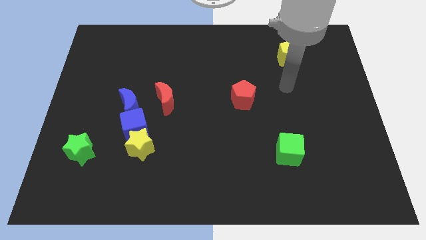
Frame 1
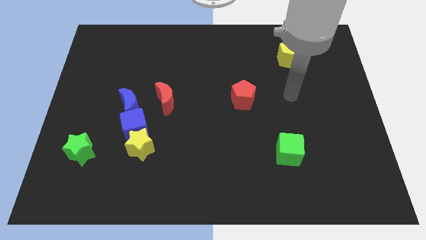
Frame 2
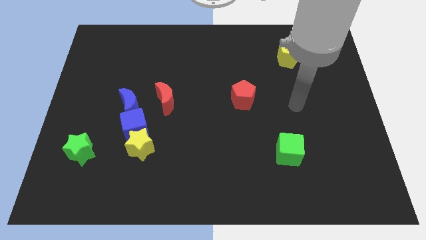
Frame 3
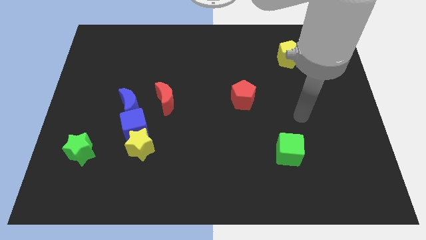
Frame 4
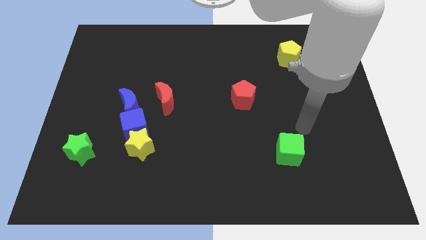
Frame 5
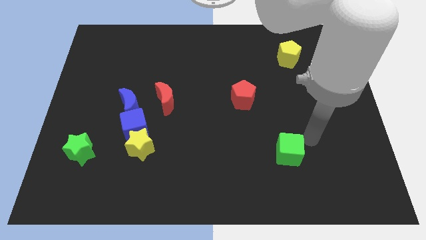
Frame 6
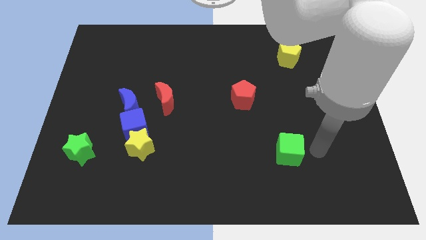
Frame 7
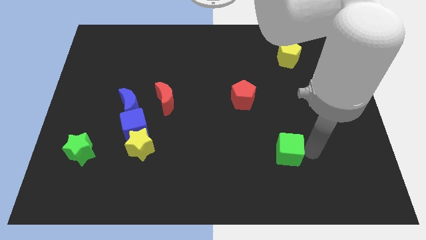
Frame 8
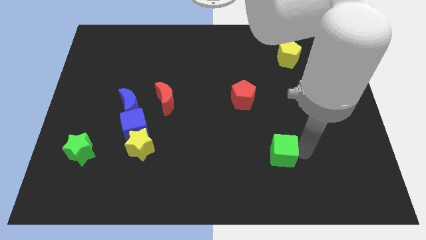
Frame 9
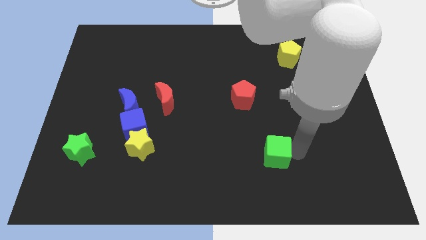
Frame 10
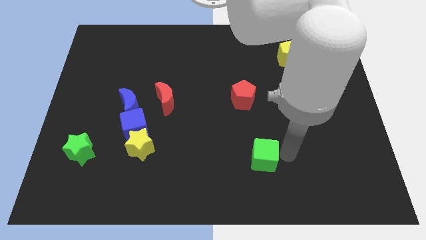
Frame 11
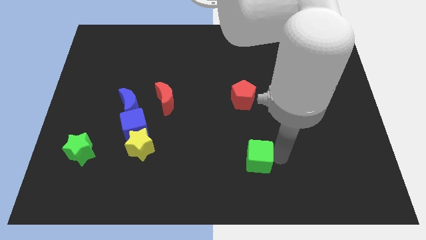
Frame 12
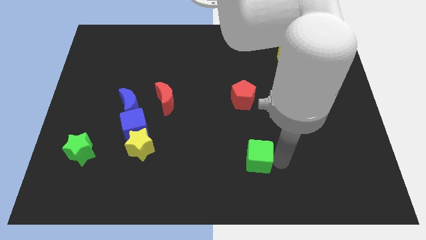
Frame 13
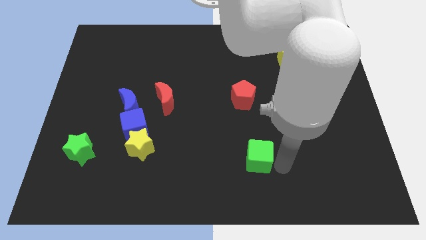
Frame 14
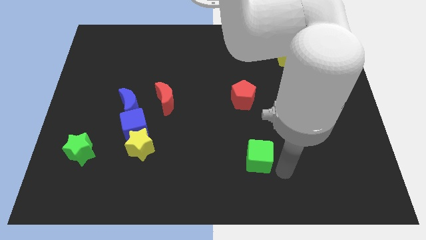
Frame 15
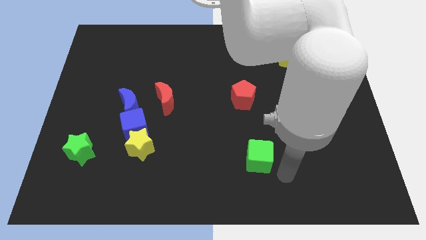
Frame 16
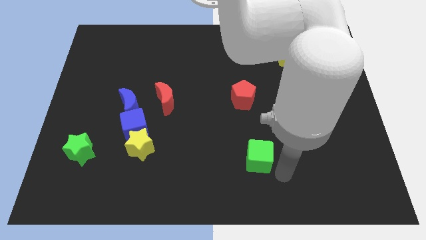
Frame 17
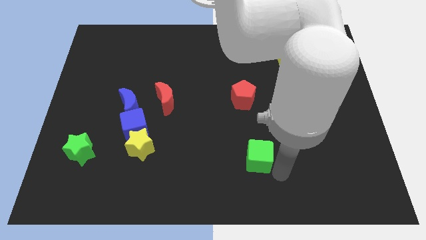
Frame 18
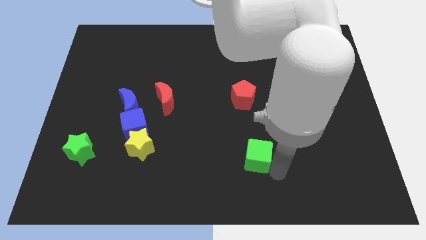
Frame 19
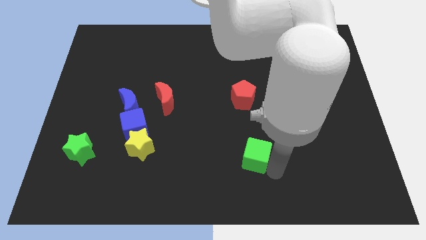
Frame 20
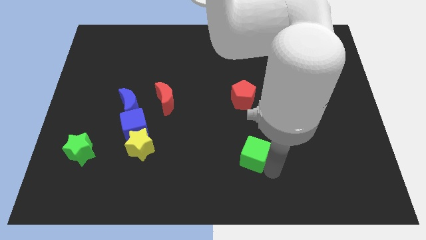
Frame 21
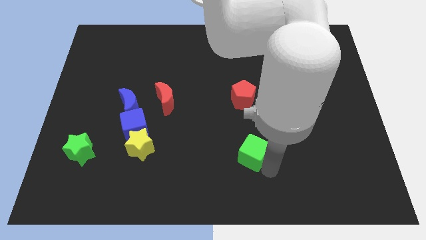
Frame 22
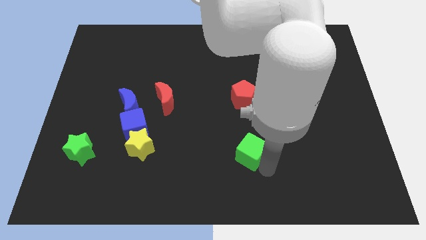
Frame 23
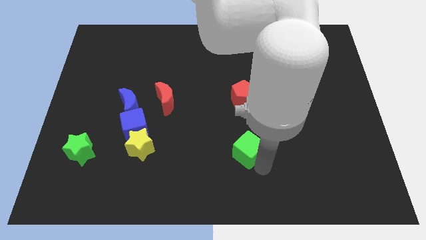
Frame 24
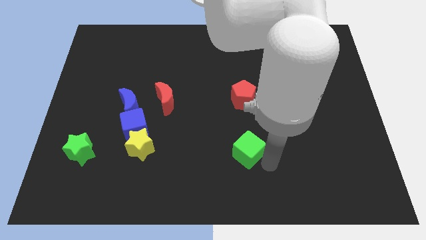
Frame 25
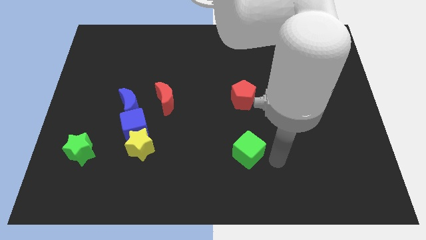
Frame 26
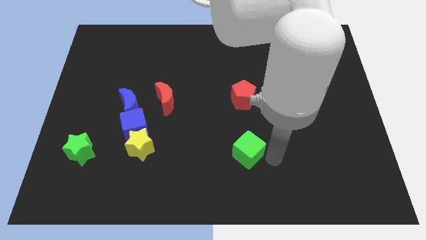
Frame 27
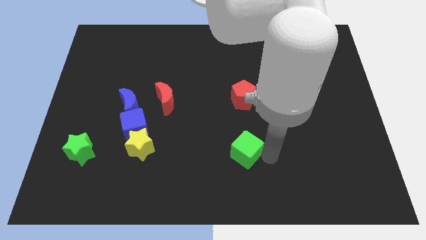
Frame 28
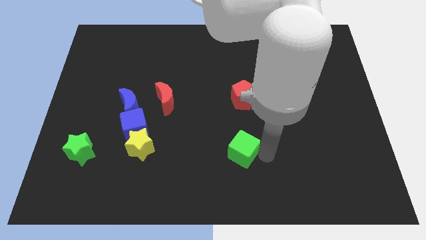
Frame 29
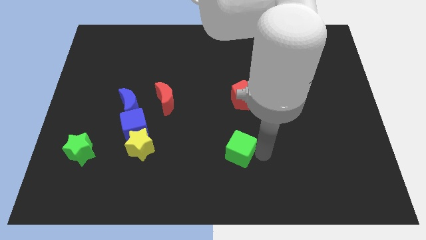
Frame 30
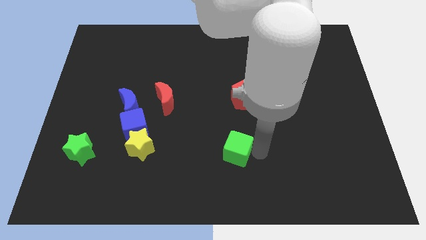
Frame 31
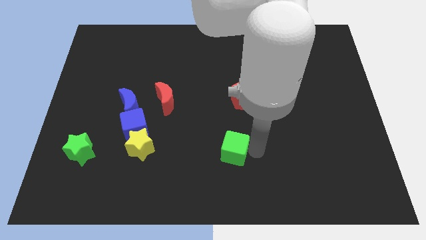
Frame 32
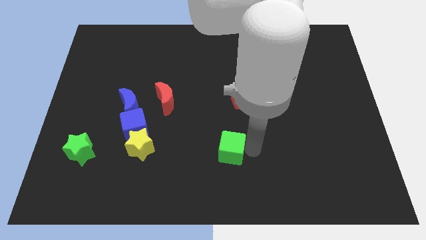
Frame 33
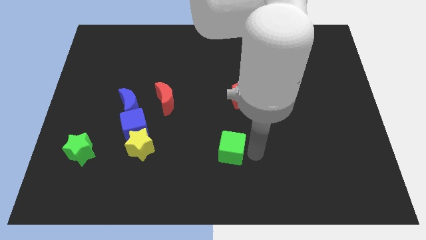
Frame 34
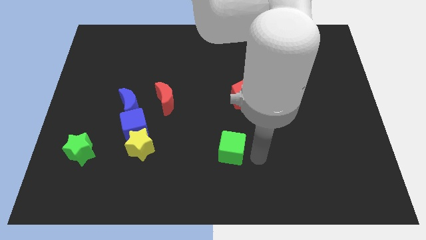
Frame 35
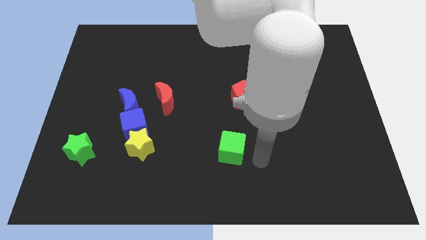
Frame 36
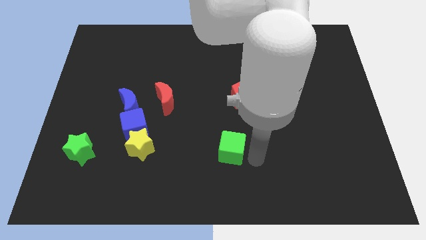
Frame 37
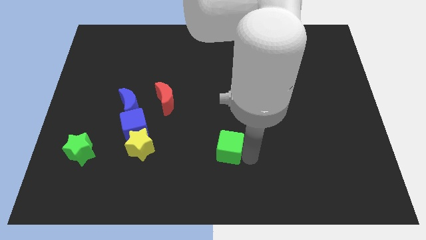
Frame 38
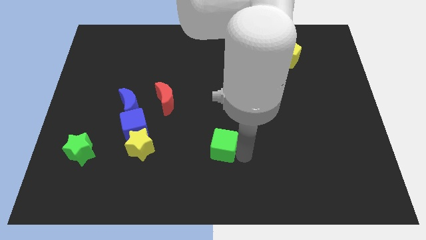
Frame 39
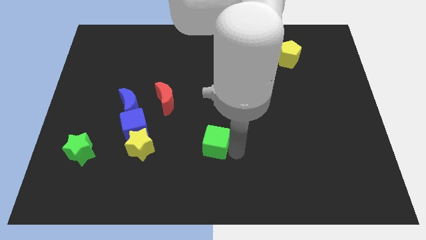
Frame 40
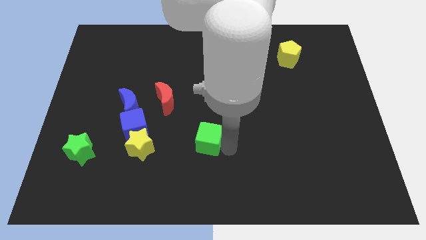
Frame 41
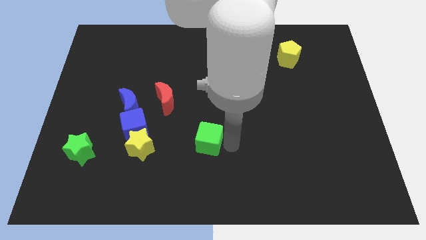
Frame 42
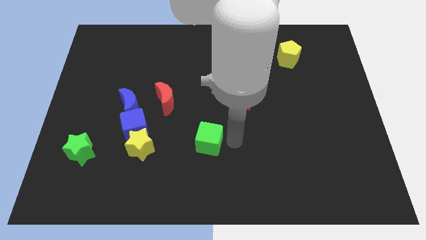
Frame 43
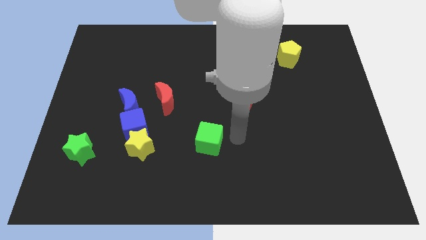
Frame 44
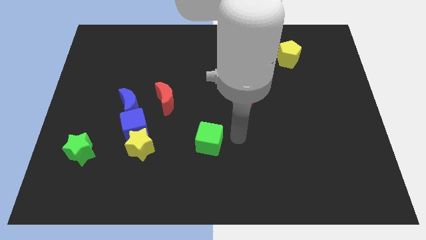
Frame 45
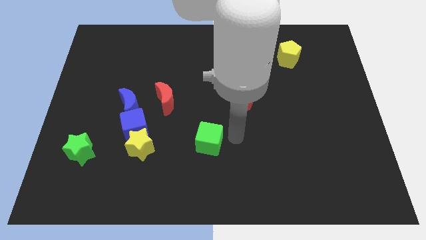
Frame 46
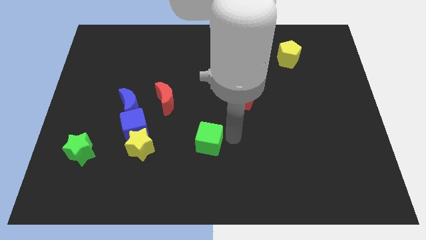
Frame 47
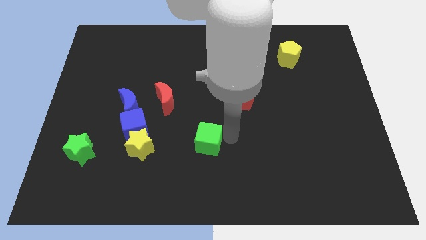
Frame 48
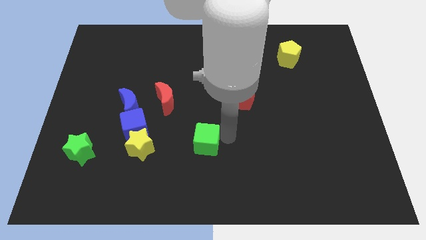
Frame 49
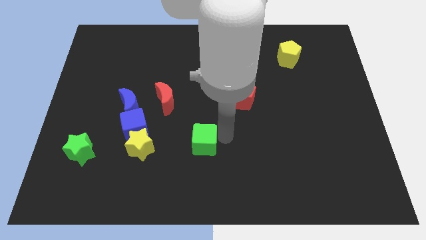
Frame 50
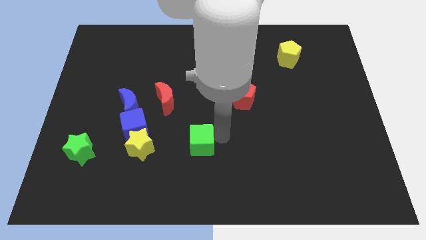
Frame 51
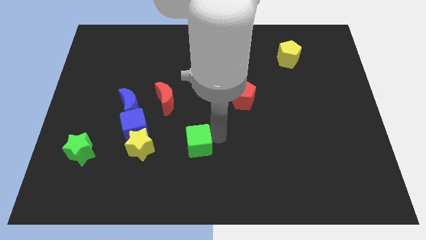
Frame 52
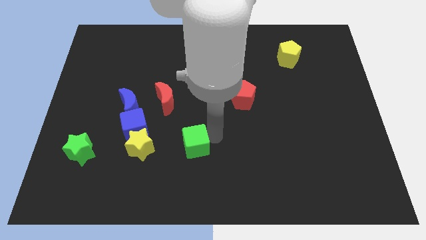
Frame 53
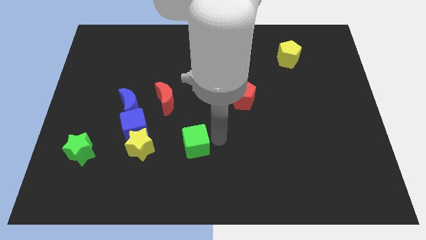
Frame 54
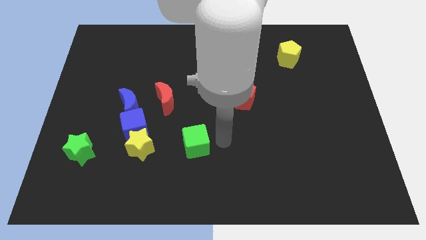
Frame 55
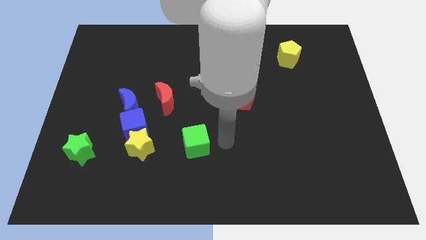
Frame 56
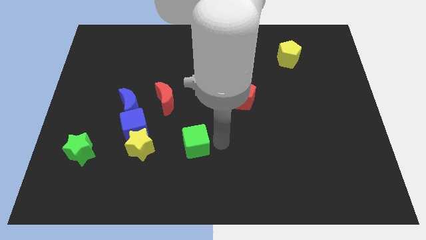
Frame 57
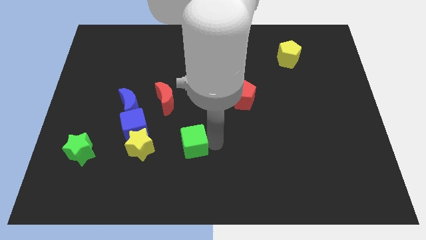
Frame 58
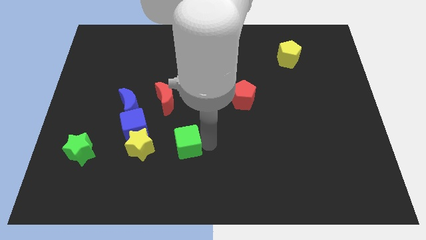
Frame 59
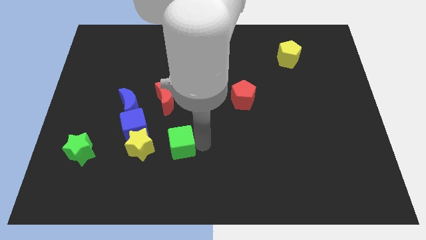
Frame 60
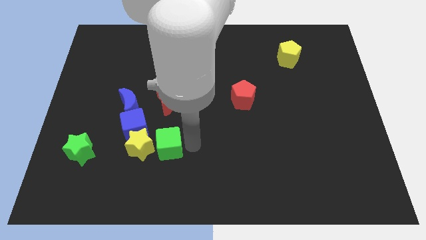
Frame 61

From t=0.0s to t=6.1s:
slide the green cube to the yellow star

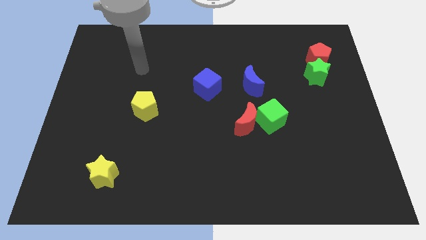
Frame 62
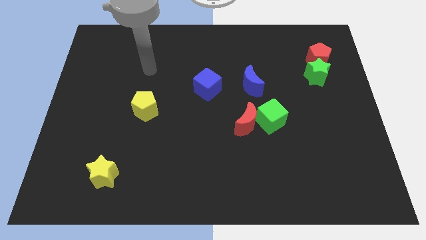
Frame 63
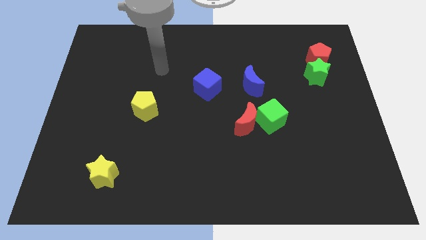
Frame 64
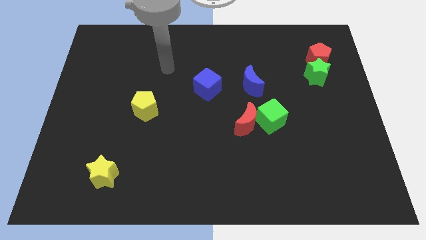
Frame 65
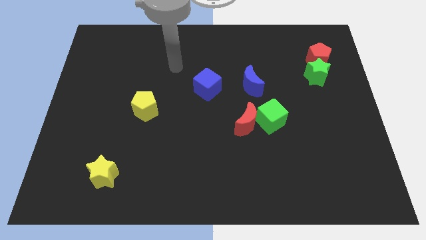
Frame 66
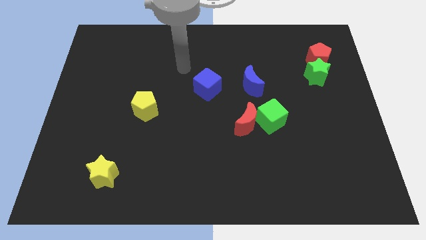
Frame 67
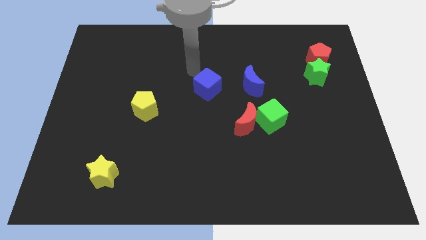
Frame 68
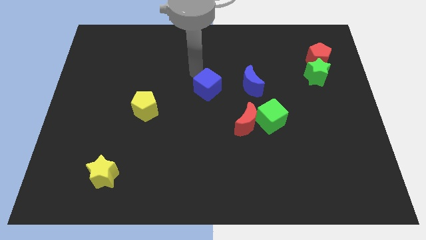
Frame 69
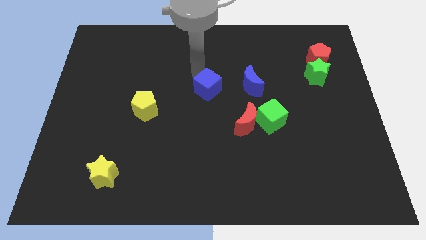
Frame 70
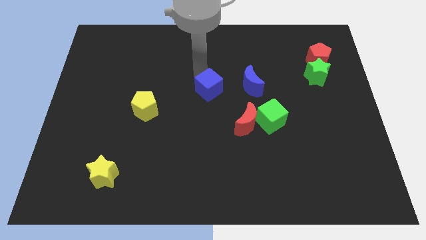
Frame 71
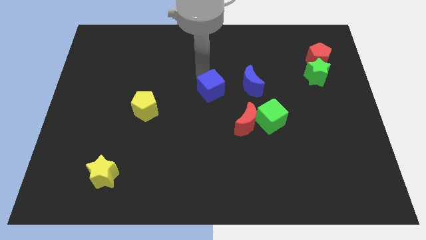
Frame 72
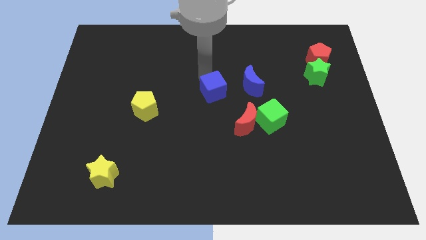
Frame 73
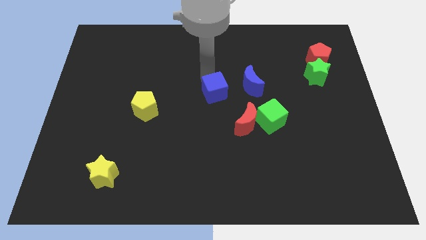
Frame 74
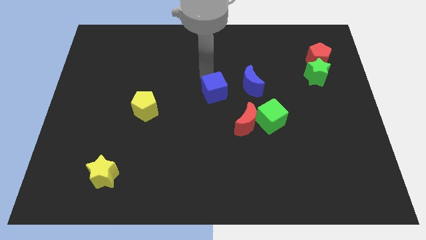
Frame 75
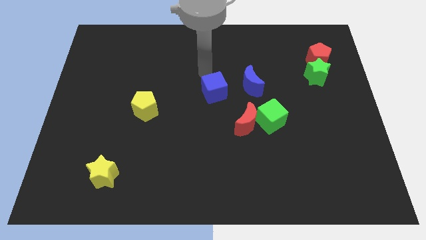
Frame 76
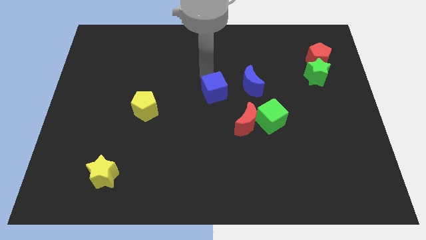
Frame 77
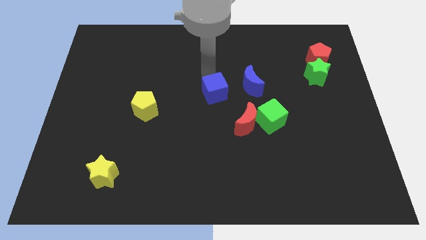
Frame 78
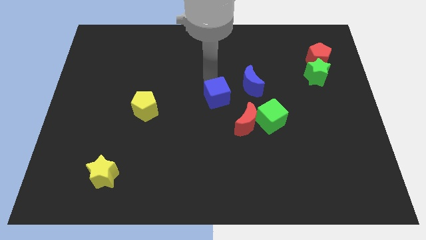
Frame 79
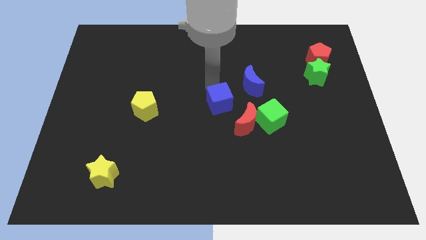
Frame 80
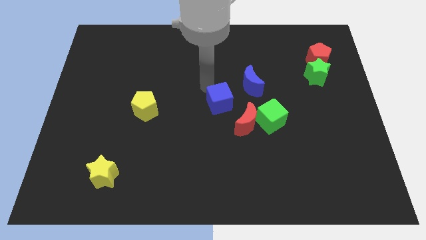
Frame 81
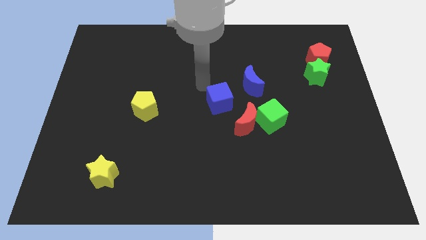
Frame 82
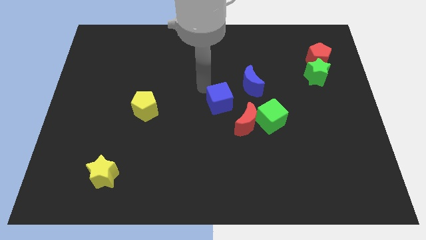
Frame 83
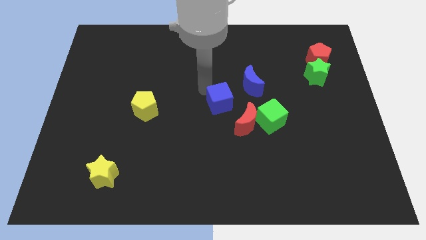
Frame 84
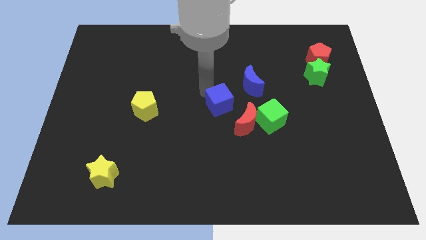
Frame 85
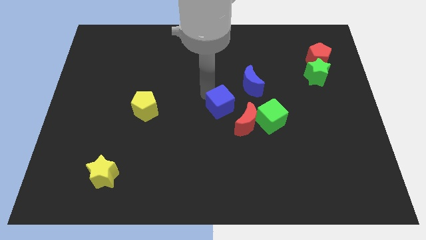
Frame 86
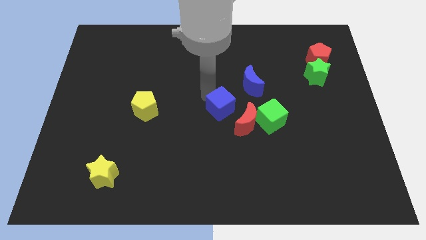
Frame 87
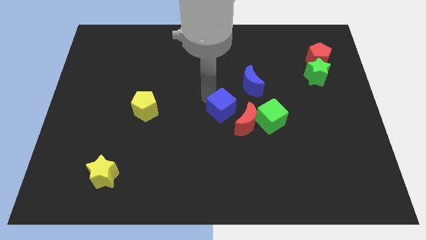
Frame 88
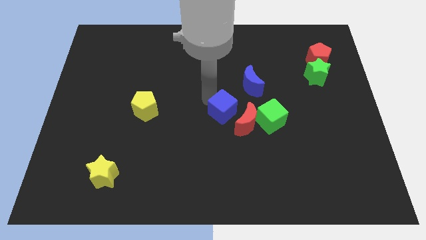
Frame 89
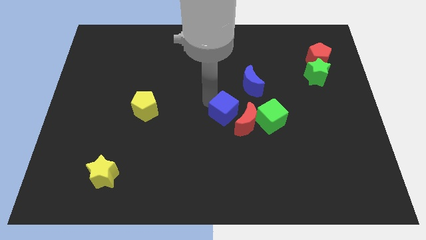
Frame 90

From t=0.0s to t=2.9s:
slide the blue cube close to the red moon
